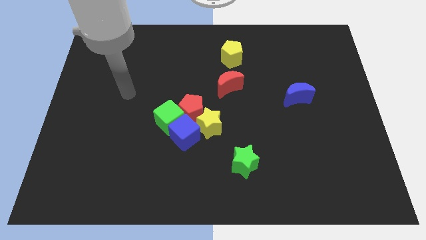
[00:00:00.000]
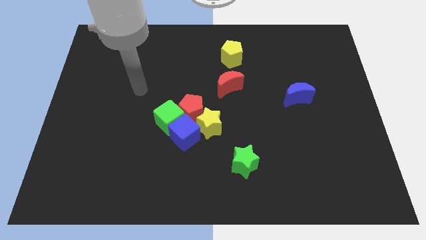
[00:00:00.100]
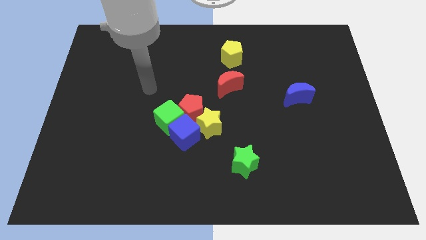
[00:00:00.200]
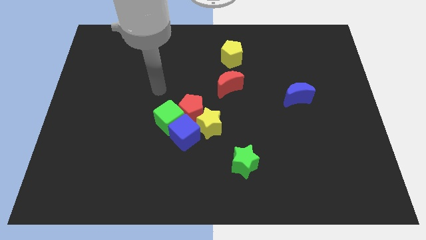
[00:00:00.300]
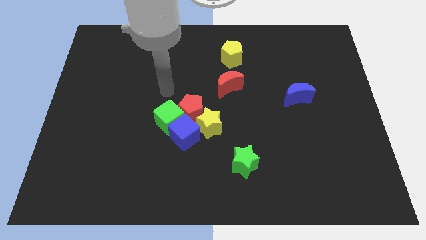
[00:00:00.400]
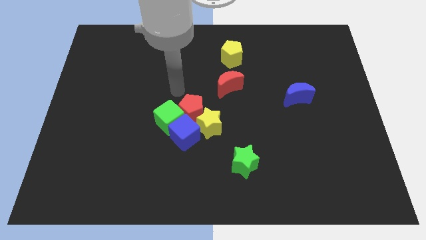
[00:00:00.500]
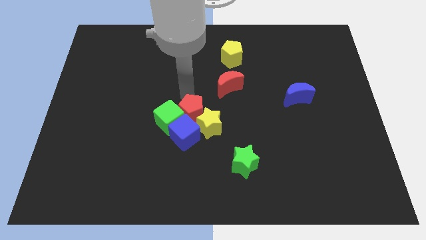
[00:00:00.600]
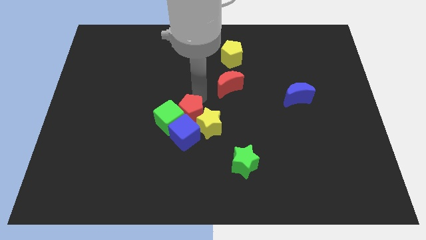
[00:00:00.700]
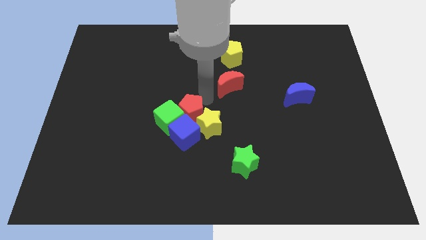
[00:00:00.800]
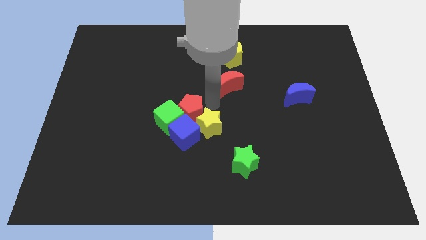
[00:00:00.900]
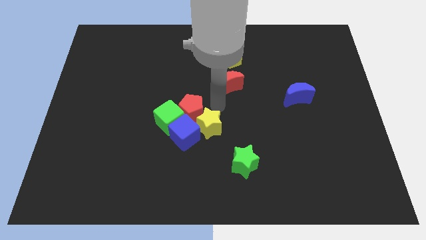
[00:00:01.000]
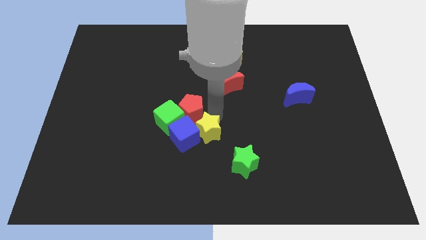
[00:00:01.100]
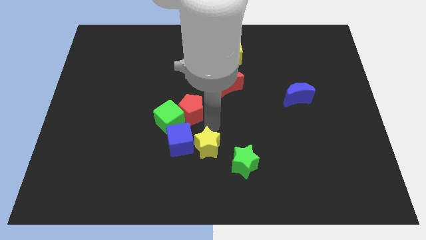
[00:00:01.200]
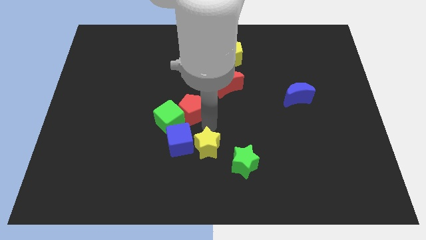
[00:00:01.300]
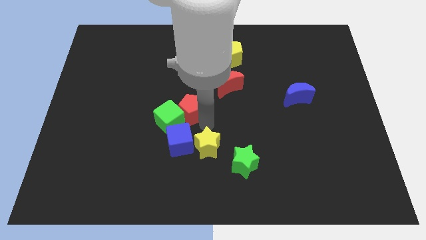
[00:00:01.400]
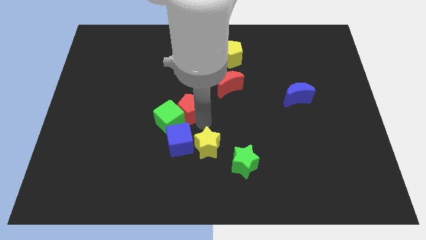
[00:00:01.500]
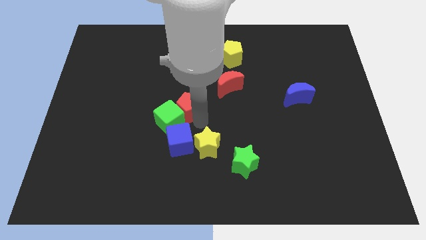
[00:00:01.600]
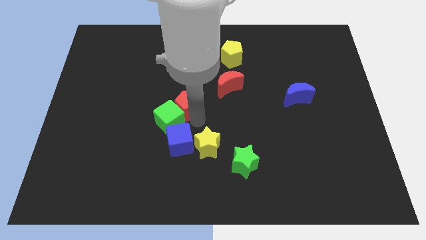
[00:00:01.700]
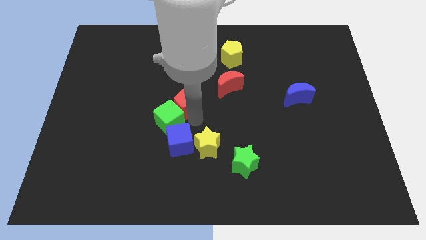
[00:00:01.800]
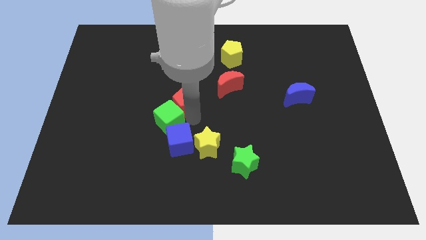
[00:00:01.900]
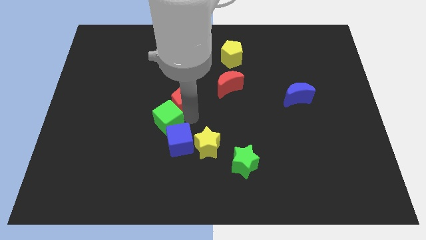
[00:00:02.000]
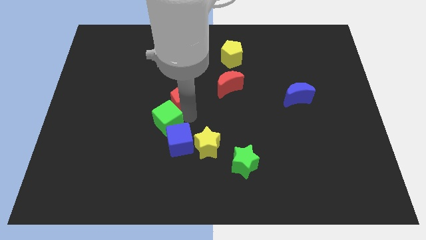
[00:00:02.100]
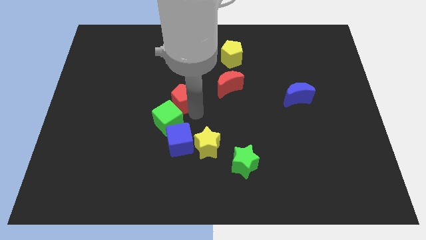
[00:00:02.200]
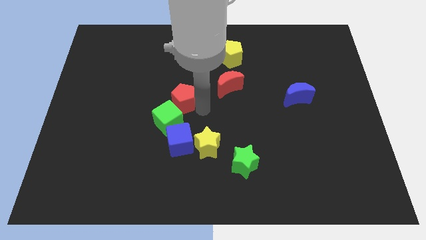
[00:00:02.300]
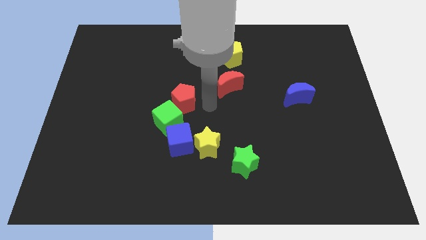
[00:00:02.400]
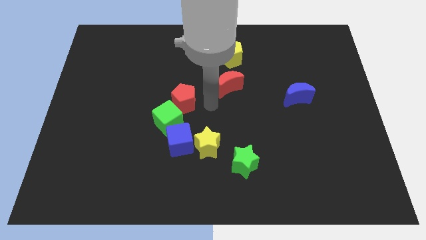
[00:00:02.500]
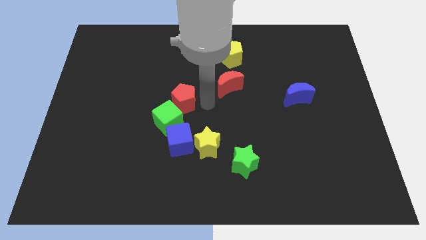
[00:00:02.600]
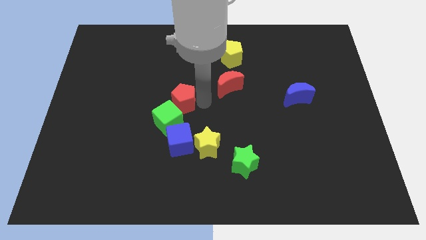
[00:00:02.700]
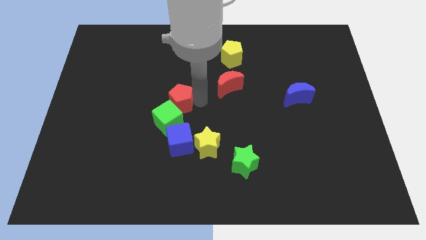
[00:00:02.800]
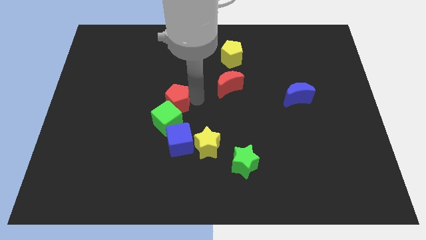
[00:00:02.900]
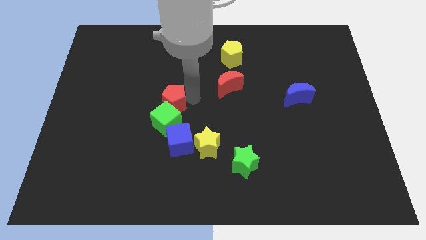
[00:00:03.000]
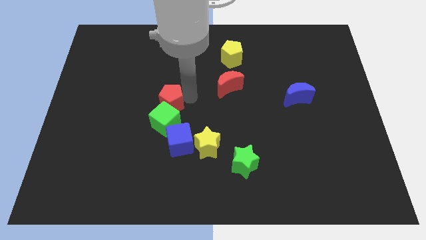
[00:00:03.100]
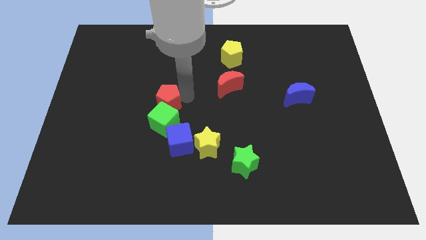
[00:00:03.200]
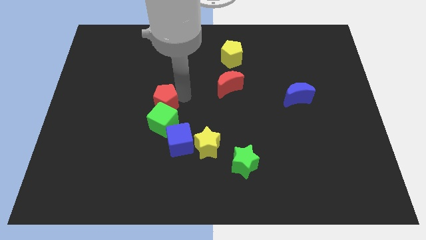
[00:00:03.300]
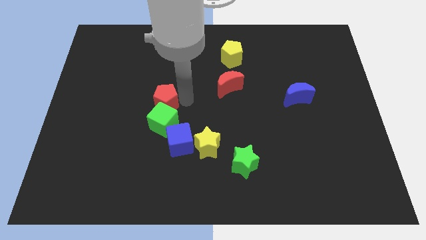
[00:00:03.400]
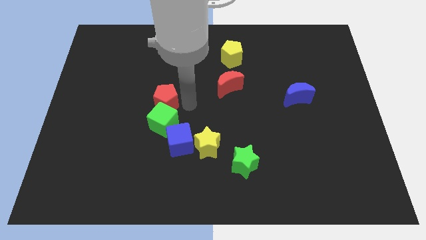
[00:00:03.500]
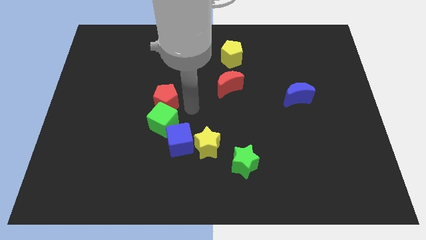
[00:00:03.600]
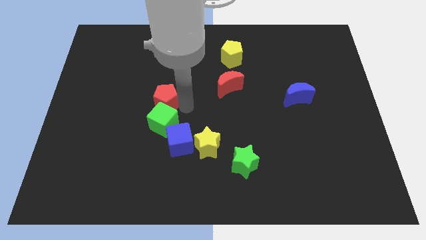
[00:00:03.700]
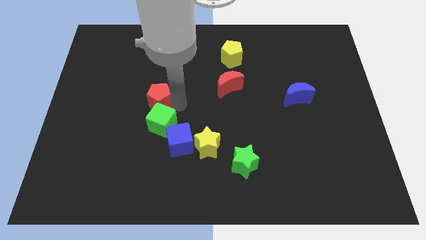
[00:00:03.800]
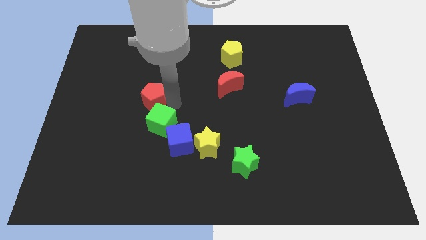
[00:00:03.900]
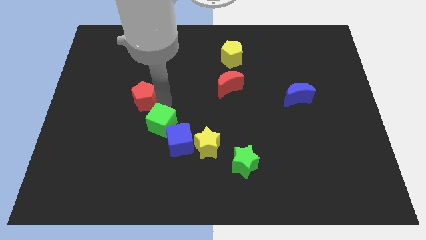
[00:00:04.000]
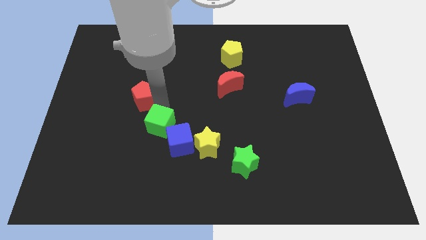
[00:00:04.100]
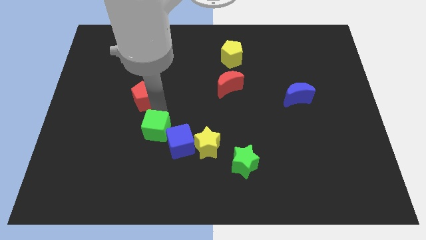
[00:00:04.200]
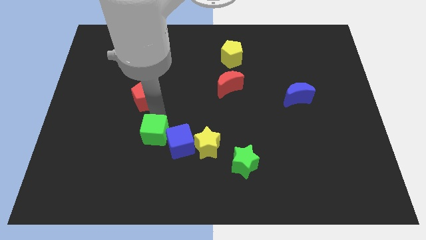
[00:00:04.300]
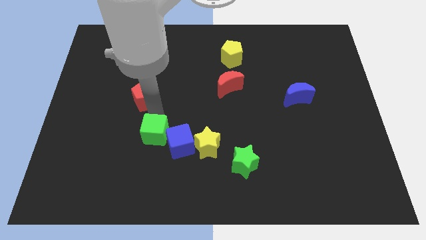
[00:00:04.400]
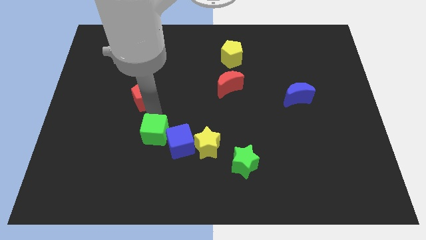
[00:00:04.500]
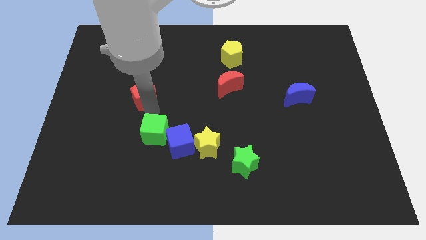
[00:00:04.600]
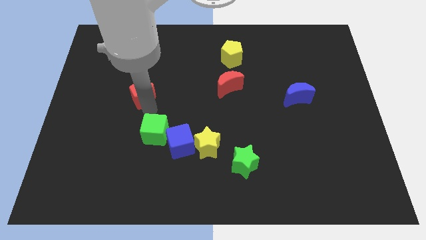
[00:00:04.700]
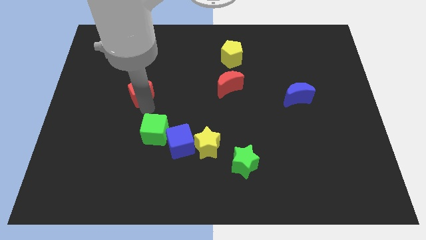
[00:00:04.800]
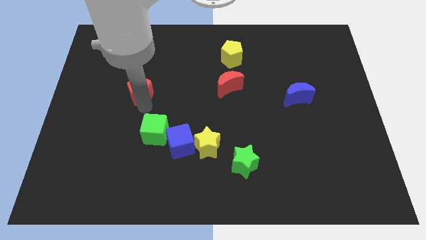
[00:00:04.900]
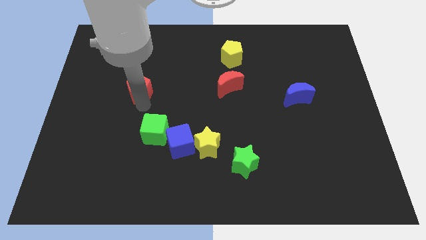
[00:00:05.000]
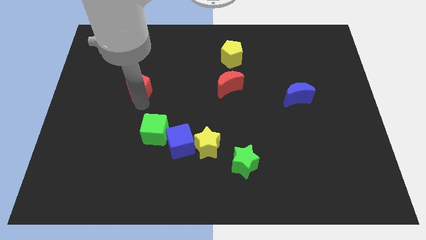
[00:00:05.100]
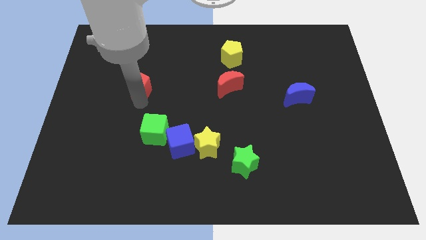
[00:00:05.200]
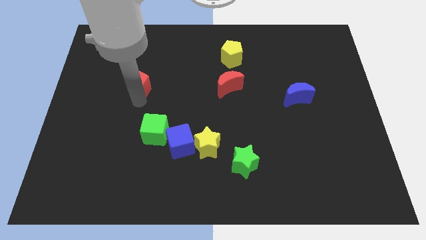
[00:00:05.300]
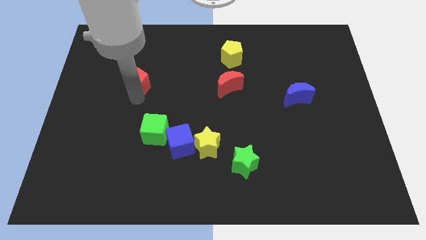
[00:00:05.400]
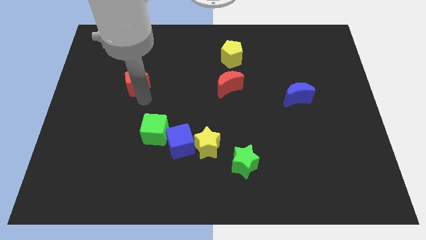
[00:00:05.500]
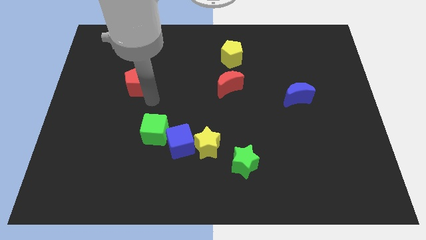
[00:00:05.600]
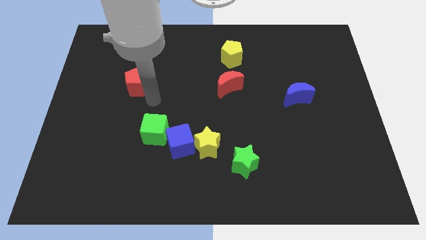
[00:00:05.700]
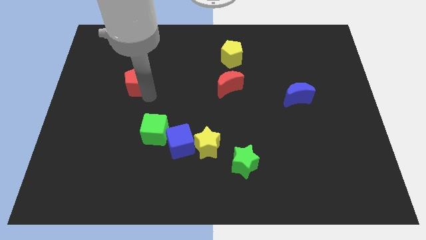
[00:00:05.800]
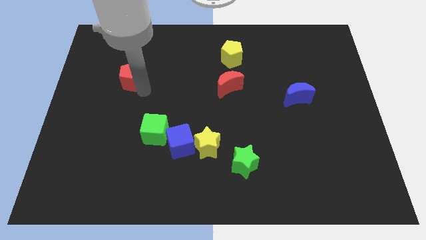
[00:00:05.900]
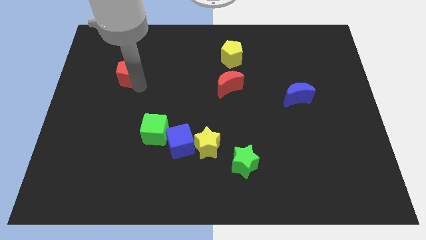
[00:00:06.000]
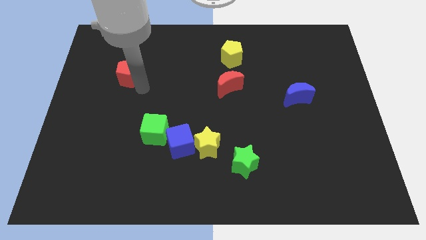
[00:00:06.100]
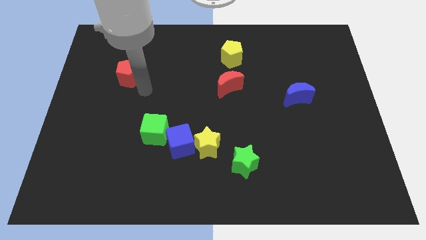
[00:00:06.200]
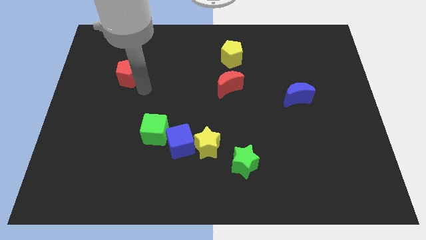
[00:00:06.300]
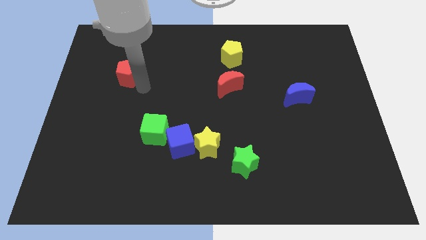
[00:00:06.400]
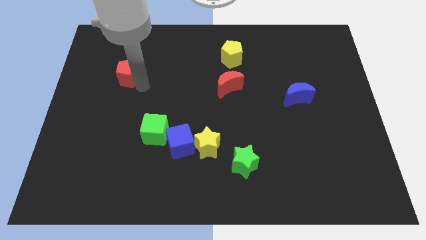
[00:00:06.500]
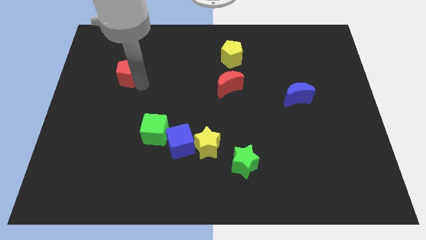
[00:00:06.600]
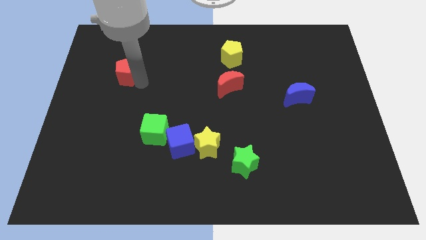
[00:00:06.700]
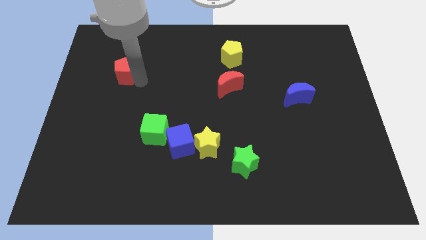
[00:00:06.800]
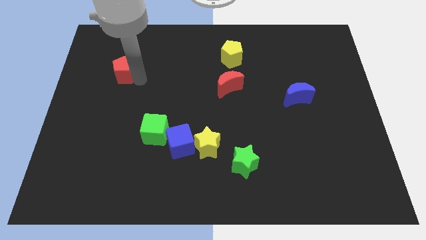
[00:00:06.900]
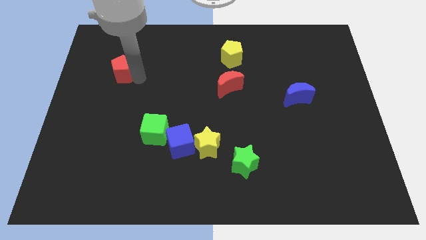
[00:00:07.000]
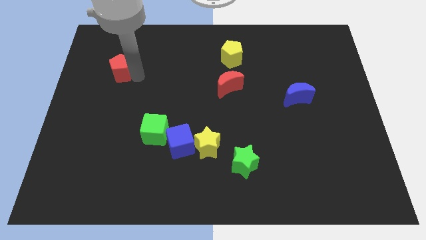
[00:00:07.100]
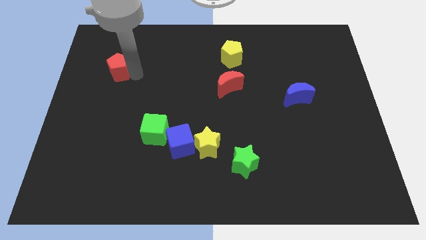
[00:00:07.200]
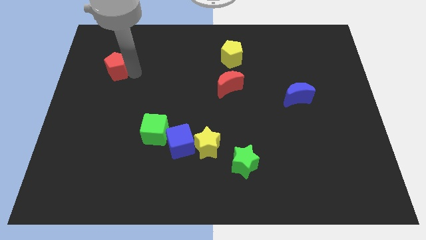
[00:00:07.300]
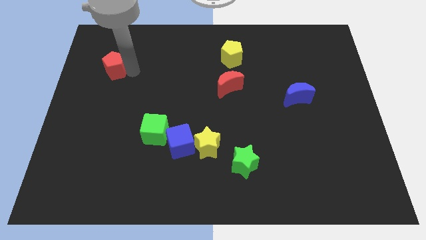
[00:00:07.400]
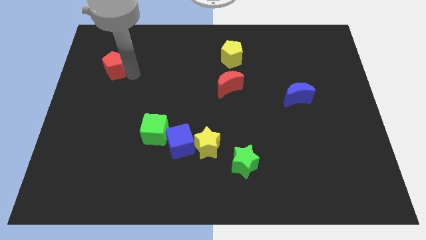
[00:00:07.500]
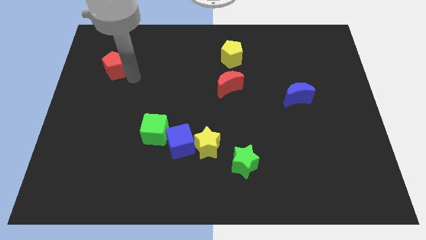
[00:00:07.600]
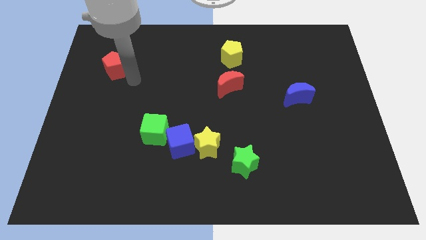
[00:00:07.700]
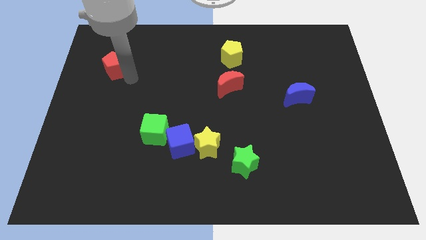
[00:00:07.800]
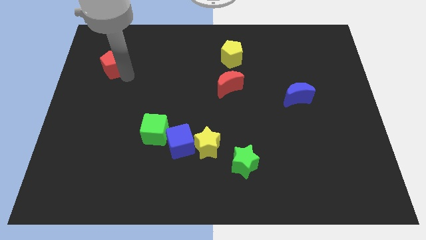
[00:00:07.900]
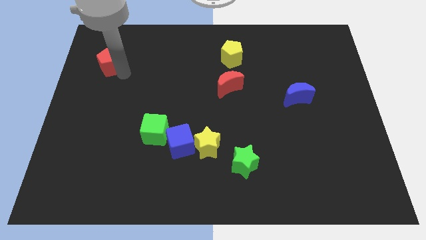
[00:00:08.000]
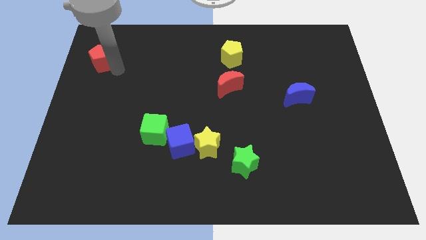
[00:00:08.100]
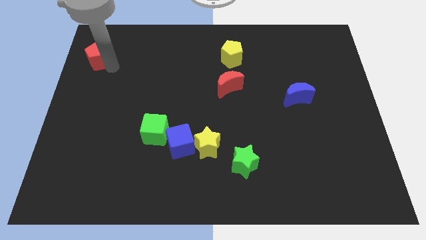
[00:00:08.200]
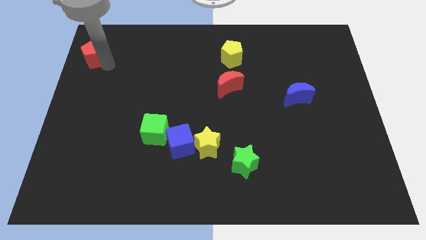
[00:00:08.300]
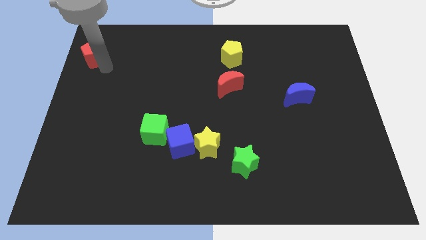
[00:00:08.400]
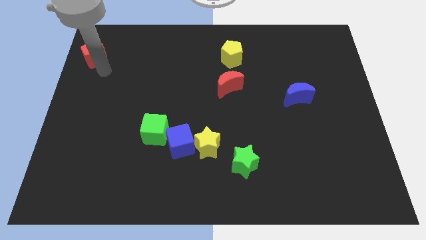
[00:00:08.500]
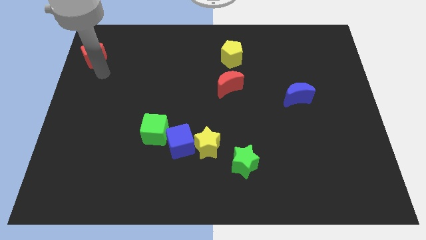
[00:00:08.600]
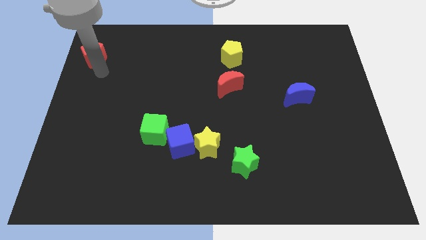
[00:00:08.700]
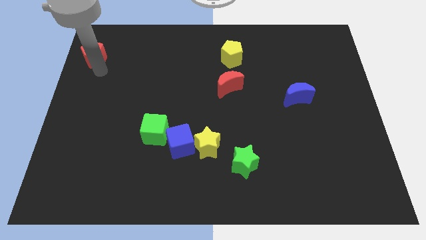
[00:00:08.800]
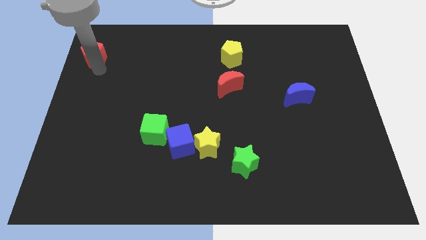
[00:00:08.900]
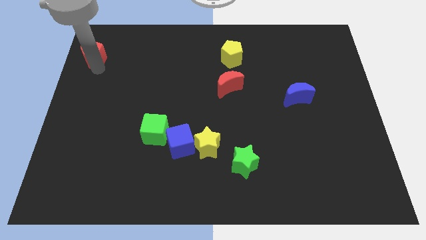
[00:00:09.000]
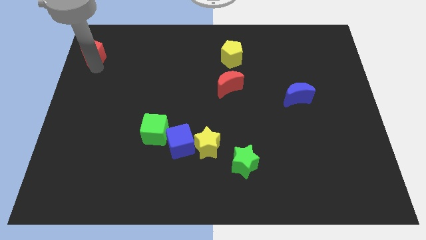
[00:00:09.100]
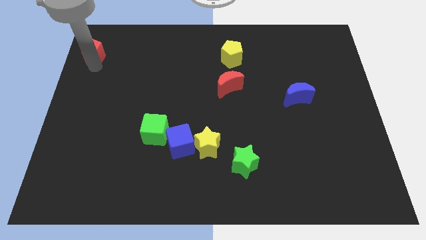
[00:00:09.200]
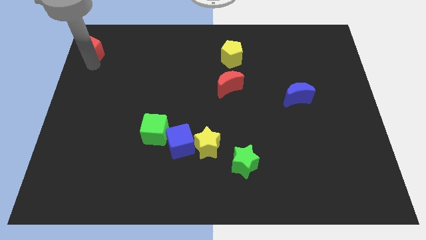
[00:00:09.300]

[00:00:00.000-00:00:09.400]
put the red pentagon to the top left
